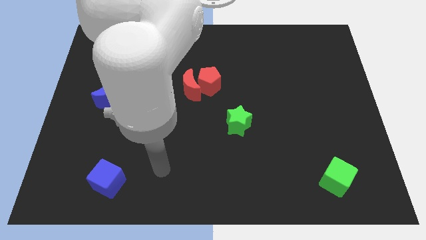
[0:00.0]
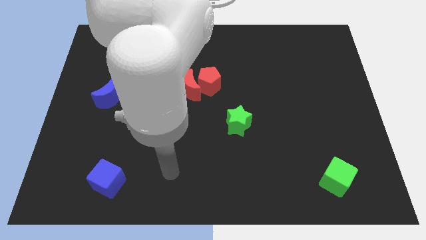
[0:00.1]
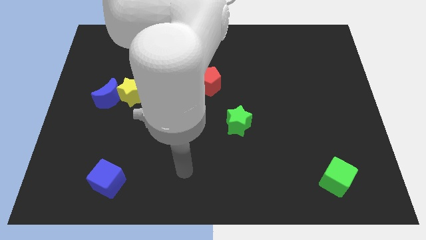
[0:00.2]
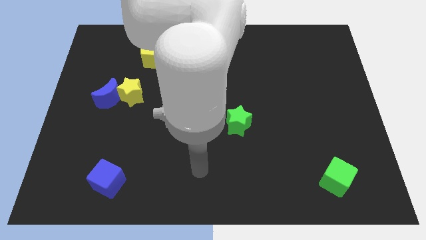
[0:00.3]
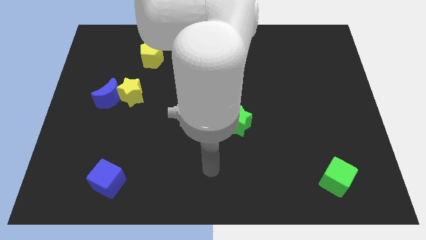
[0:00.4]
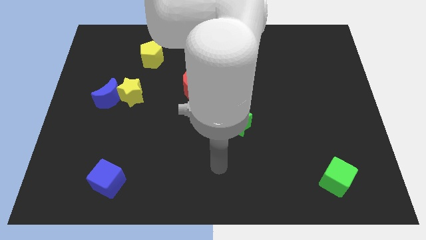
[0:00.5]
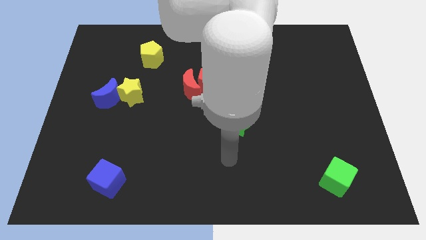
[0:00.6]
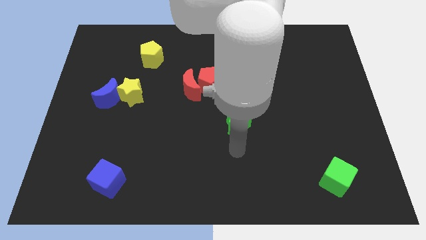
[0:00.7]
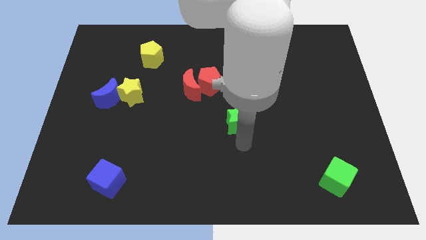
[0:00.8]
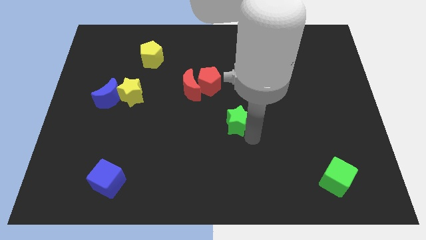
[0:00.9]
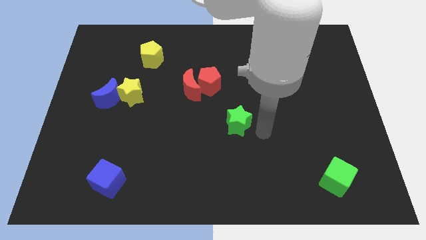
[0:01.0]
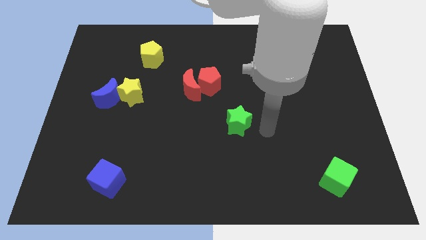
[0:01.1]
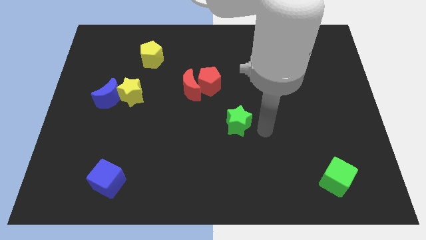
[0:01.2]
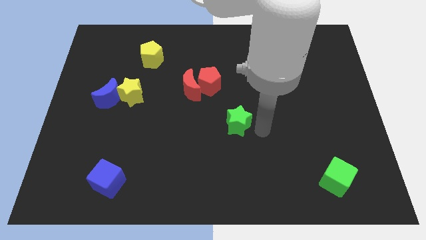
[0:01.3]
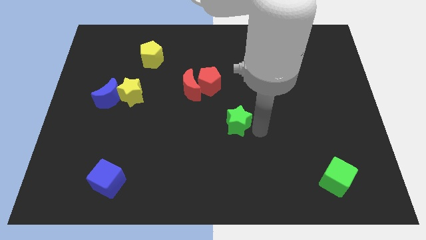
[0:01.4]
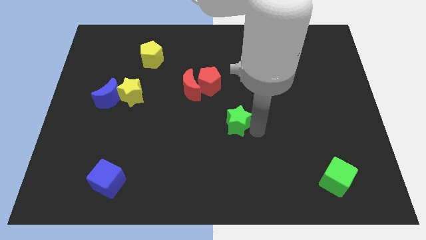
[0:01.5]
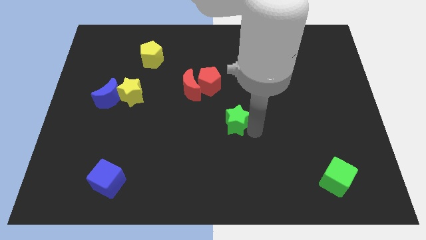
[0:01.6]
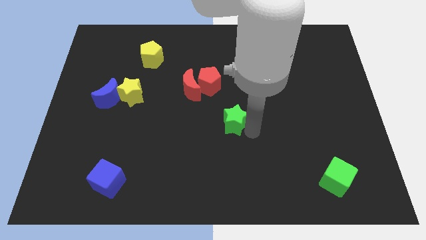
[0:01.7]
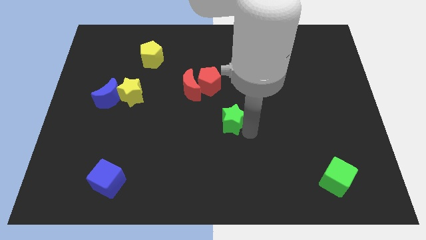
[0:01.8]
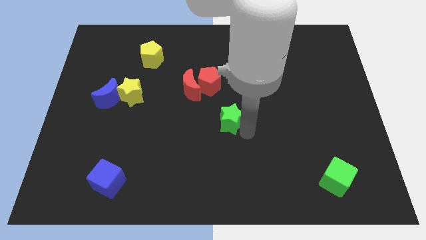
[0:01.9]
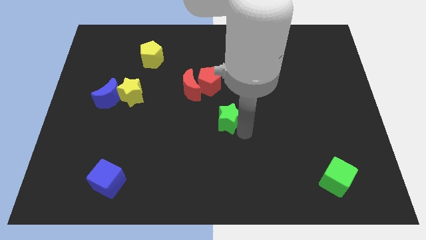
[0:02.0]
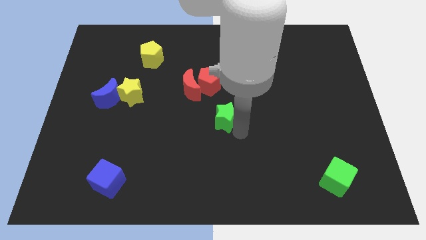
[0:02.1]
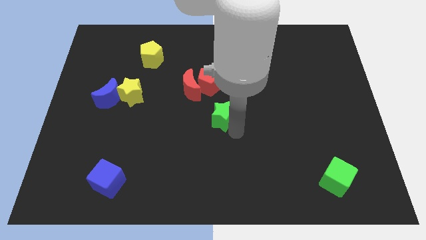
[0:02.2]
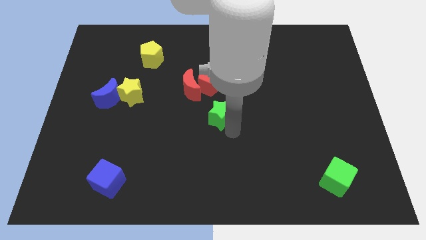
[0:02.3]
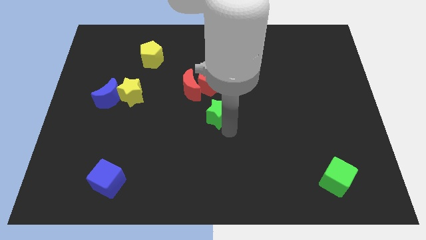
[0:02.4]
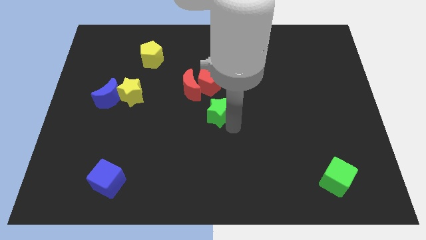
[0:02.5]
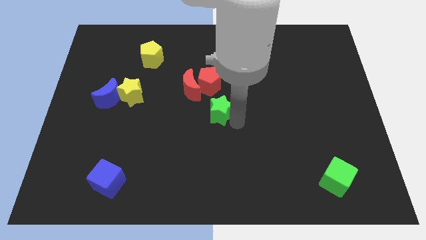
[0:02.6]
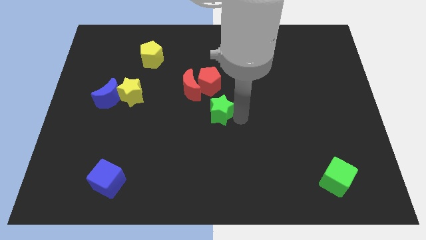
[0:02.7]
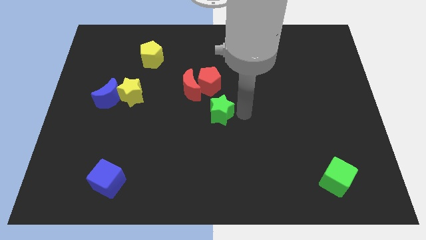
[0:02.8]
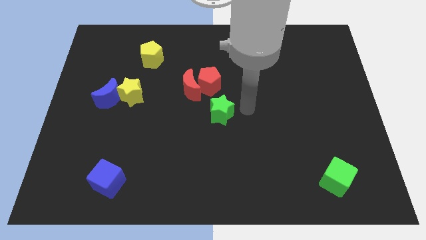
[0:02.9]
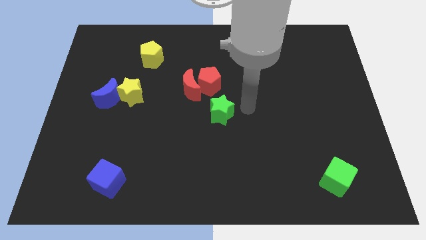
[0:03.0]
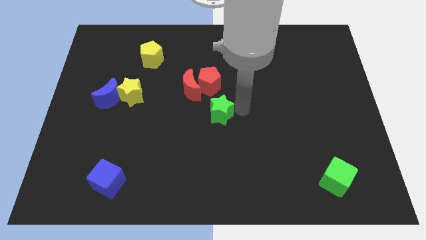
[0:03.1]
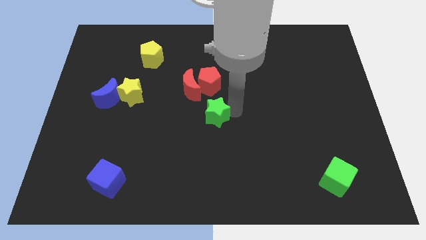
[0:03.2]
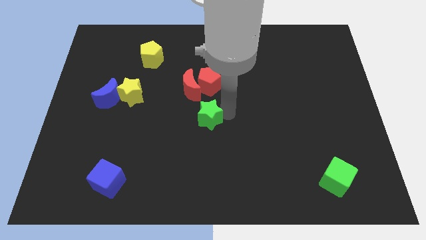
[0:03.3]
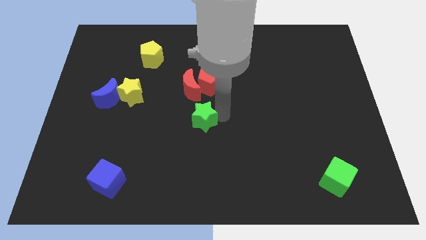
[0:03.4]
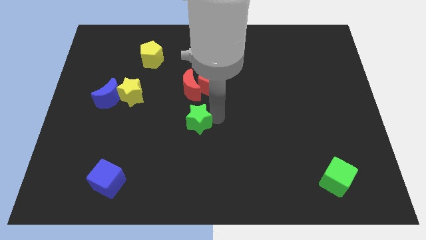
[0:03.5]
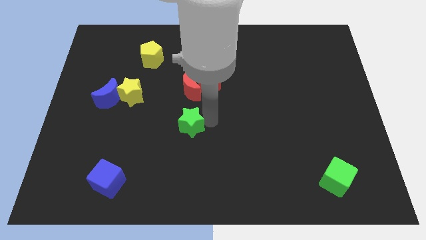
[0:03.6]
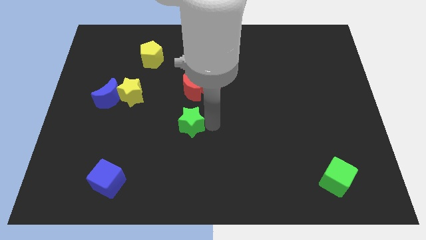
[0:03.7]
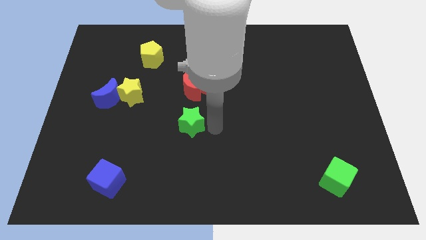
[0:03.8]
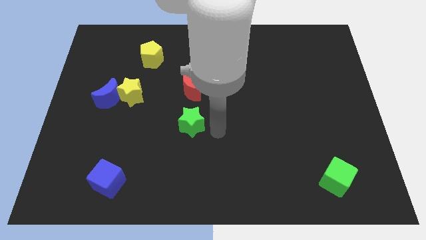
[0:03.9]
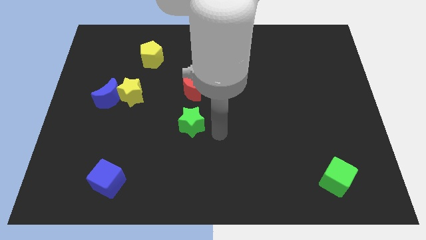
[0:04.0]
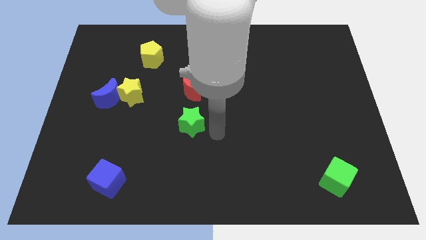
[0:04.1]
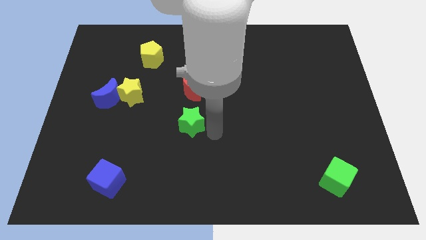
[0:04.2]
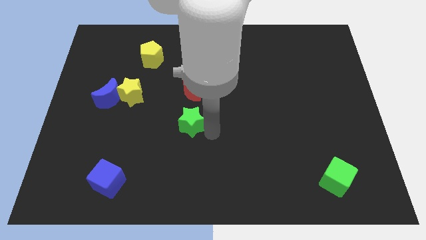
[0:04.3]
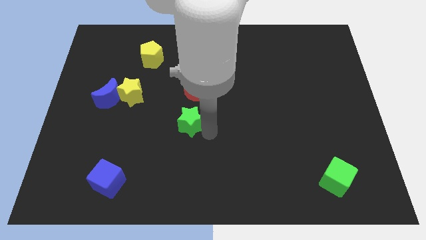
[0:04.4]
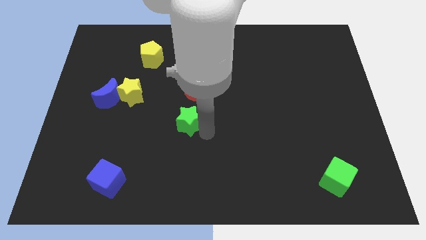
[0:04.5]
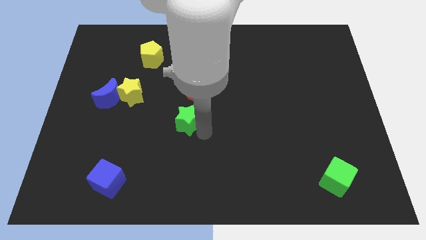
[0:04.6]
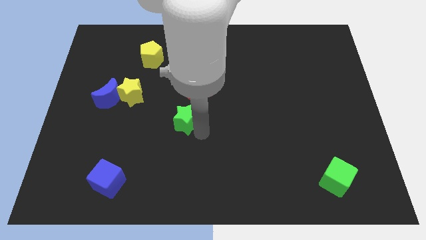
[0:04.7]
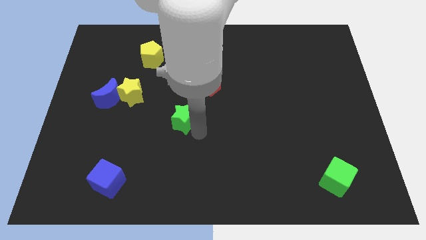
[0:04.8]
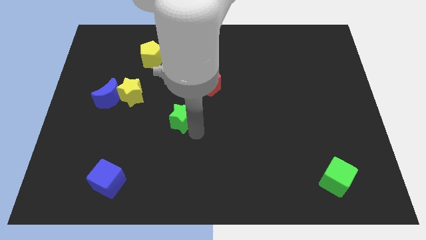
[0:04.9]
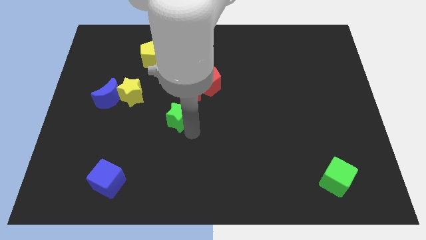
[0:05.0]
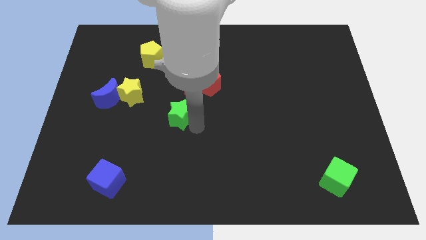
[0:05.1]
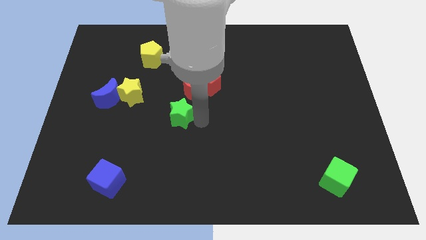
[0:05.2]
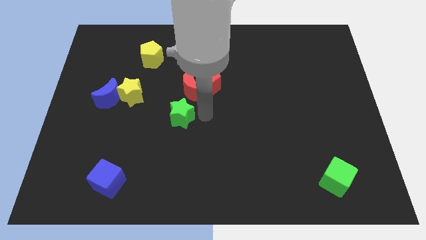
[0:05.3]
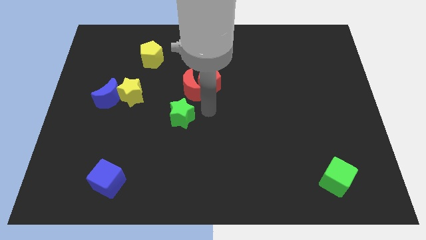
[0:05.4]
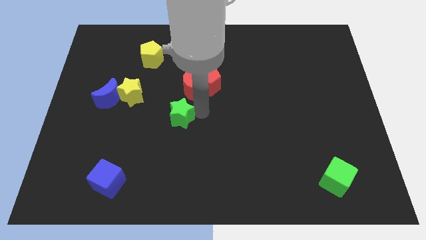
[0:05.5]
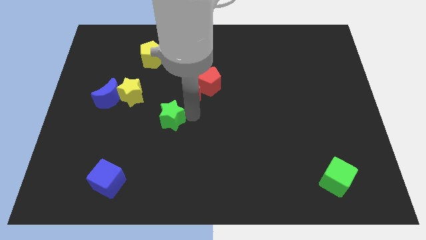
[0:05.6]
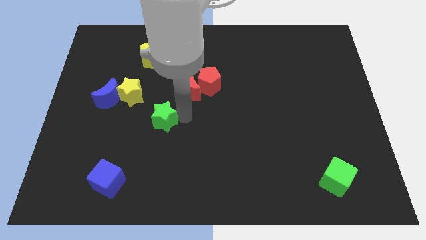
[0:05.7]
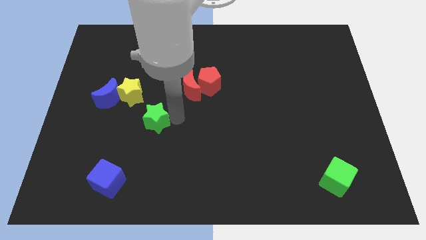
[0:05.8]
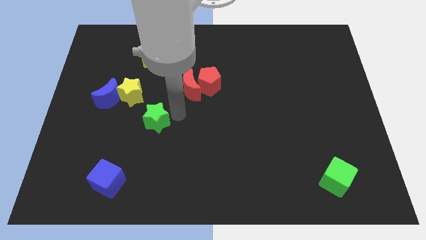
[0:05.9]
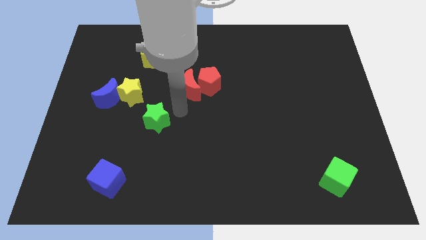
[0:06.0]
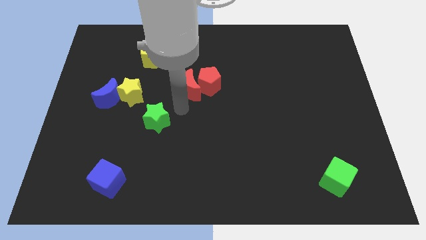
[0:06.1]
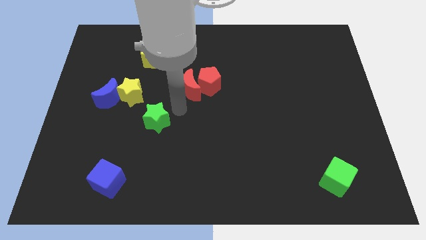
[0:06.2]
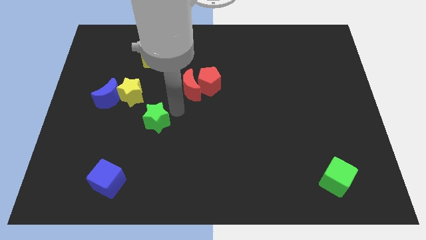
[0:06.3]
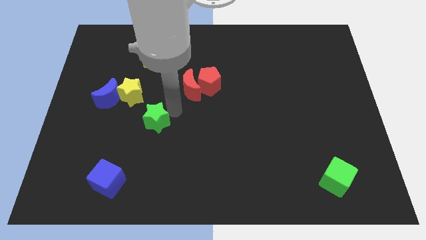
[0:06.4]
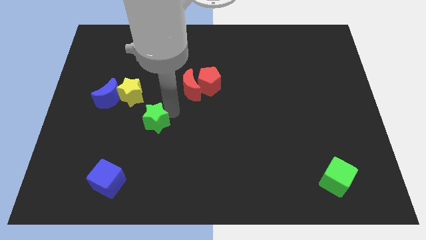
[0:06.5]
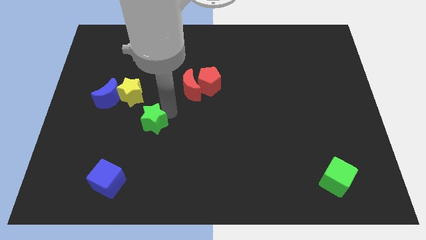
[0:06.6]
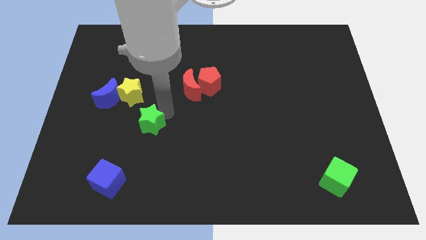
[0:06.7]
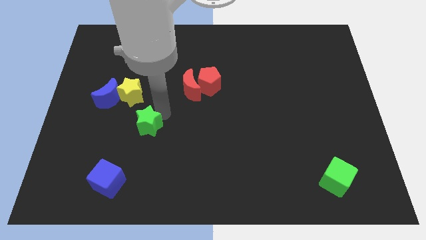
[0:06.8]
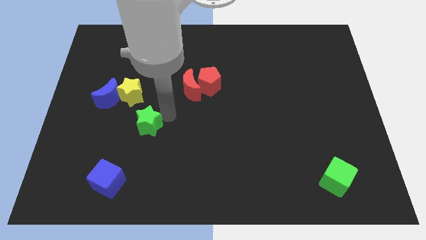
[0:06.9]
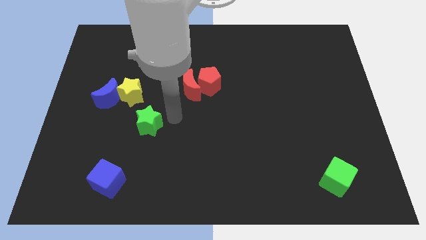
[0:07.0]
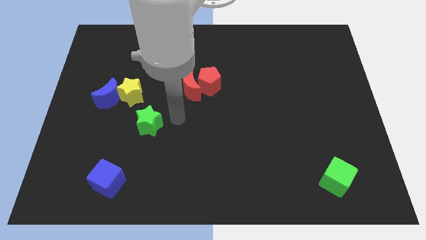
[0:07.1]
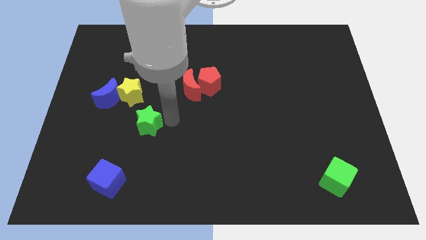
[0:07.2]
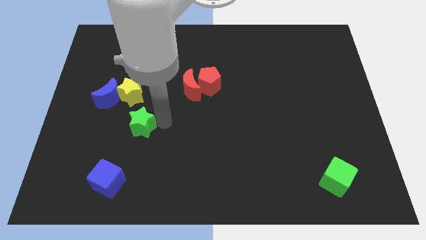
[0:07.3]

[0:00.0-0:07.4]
put the green star below the yellow star
